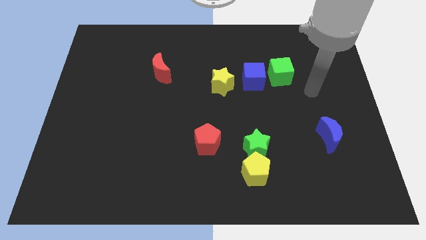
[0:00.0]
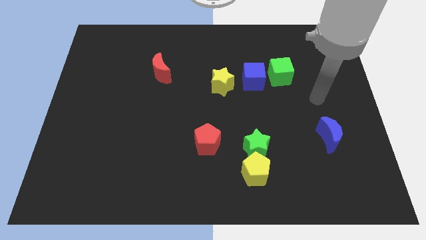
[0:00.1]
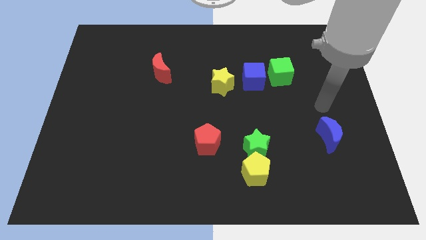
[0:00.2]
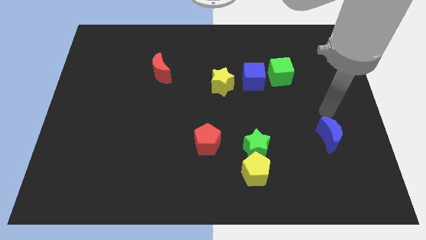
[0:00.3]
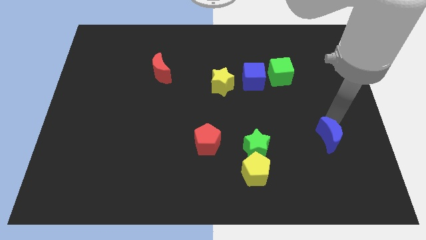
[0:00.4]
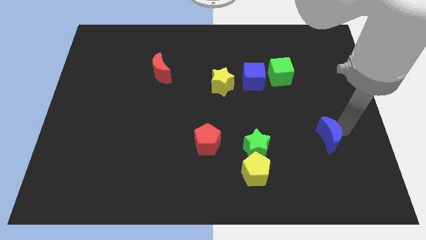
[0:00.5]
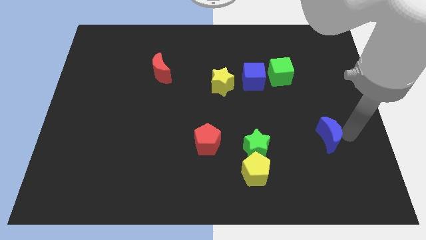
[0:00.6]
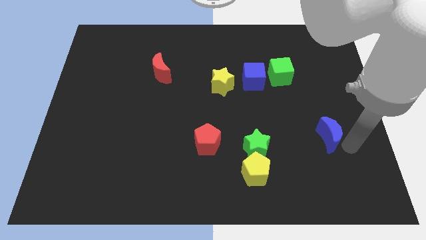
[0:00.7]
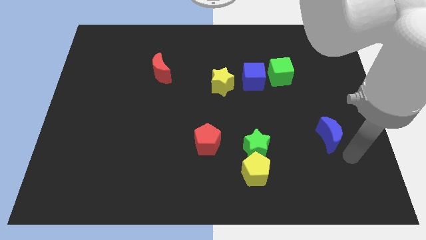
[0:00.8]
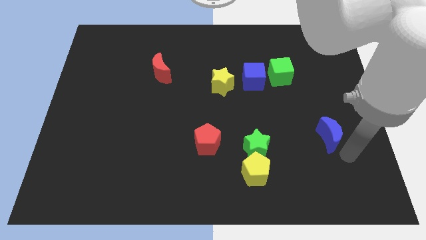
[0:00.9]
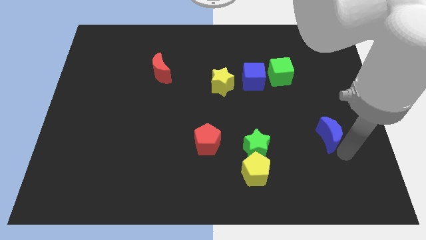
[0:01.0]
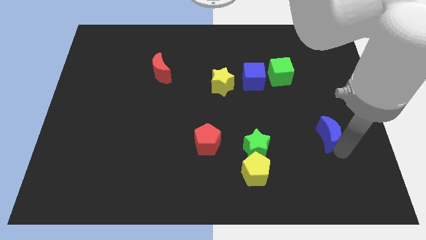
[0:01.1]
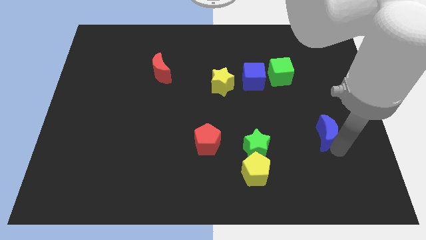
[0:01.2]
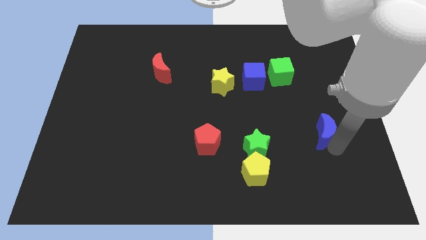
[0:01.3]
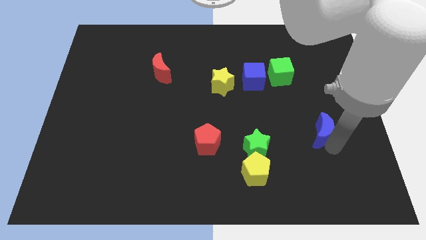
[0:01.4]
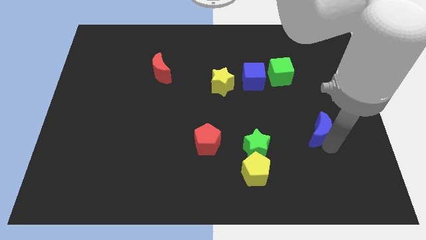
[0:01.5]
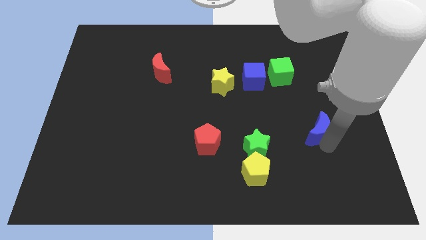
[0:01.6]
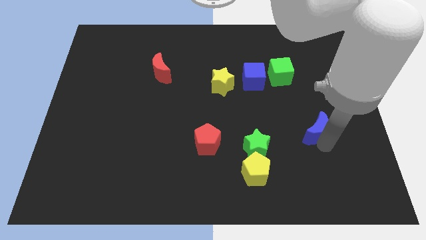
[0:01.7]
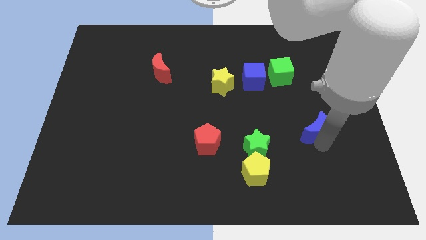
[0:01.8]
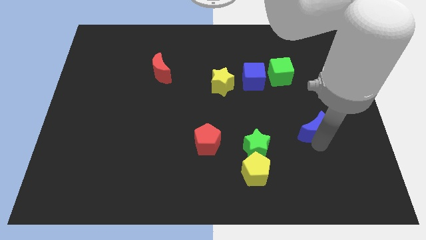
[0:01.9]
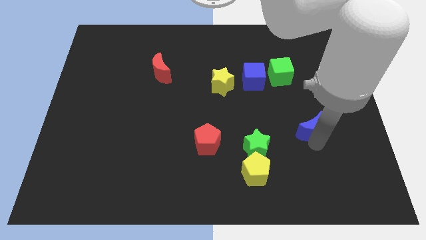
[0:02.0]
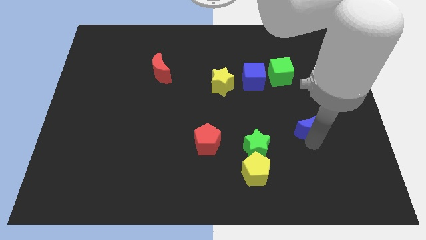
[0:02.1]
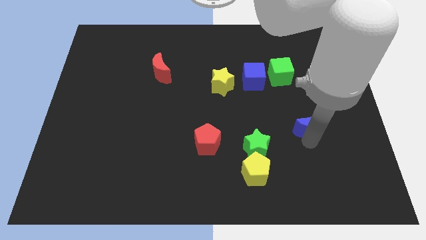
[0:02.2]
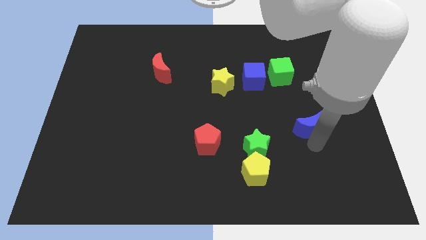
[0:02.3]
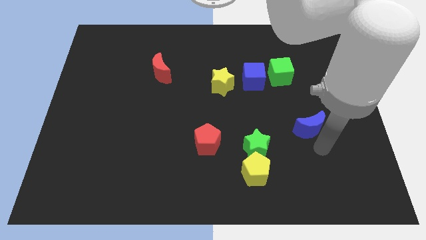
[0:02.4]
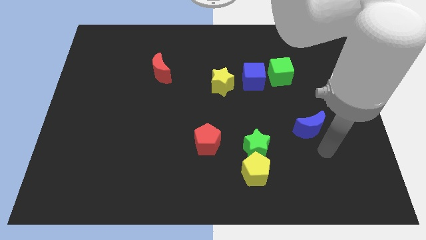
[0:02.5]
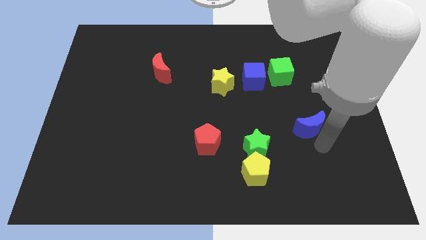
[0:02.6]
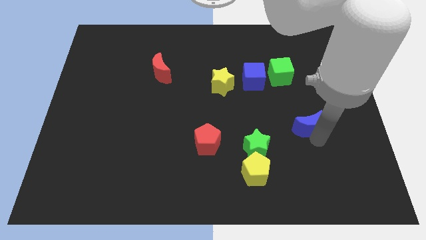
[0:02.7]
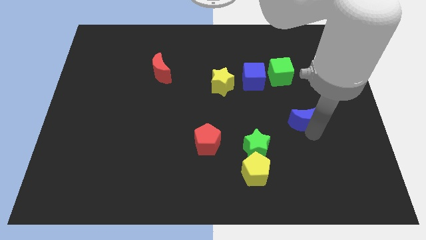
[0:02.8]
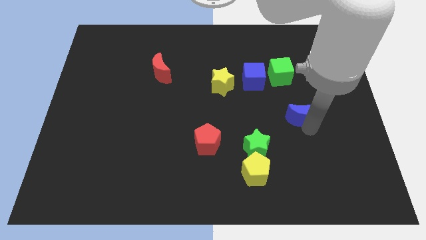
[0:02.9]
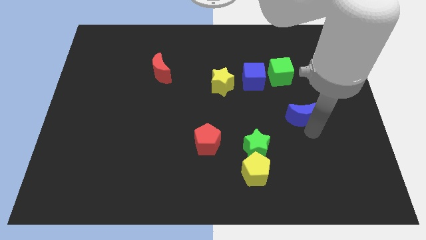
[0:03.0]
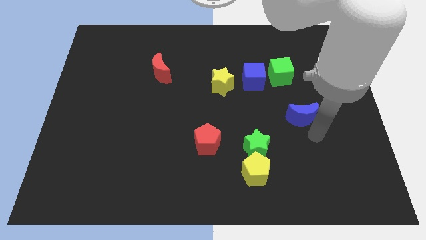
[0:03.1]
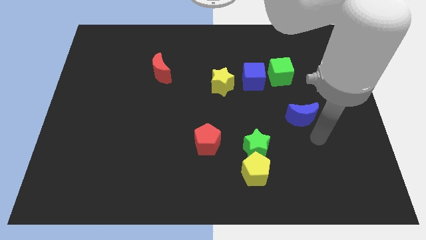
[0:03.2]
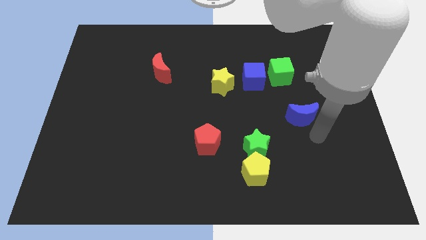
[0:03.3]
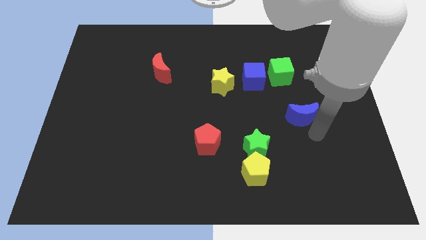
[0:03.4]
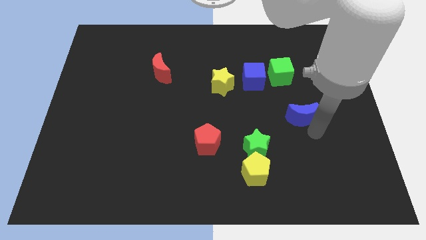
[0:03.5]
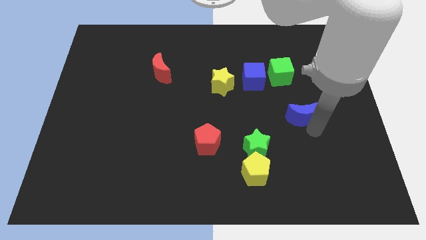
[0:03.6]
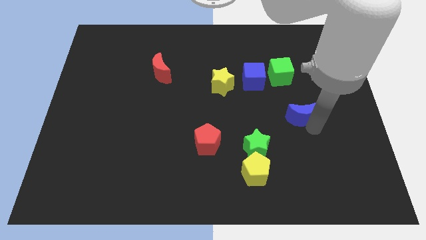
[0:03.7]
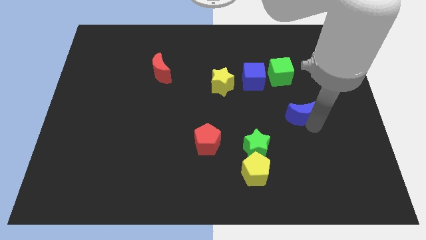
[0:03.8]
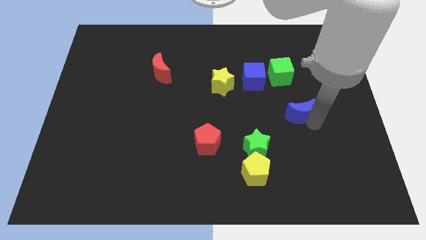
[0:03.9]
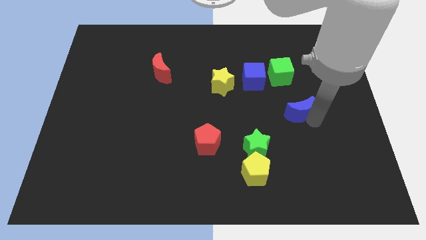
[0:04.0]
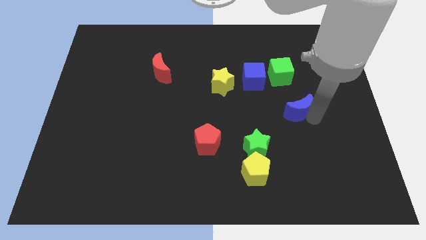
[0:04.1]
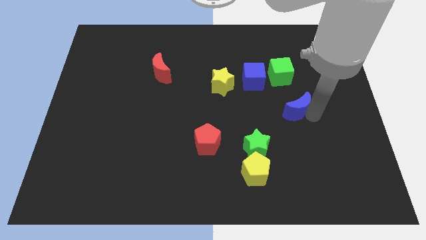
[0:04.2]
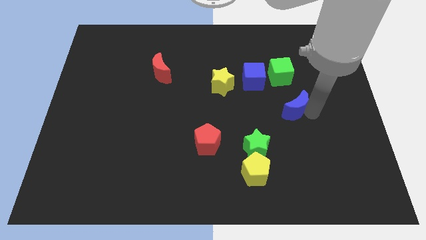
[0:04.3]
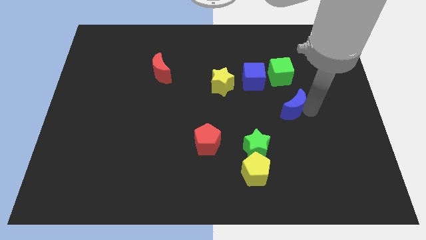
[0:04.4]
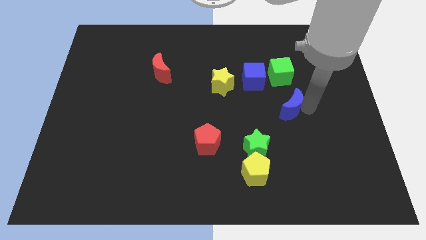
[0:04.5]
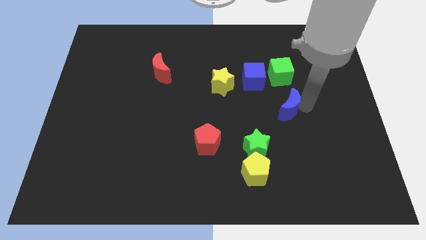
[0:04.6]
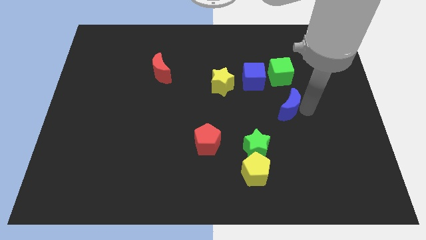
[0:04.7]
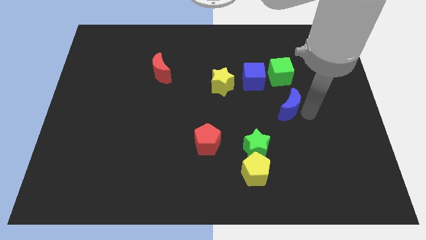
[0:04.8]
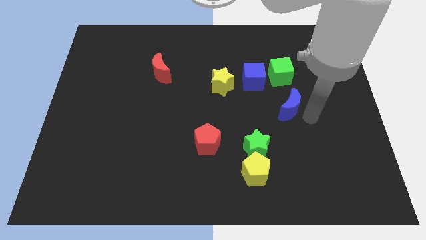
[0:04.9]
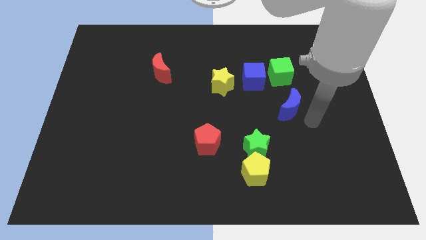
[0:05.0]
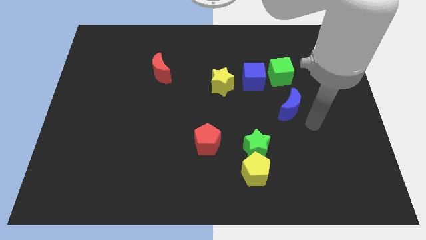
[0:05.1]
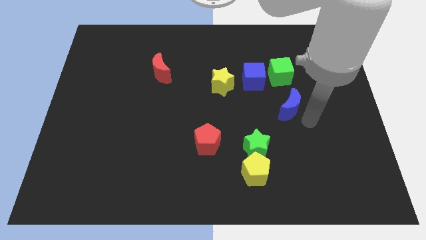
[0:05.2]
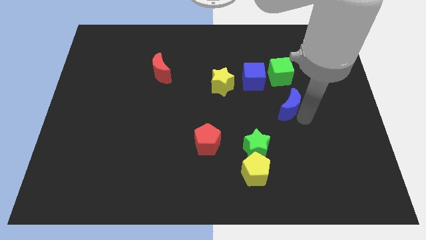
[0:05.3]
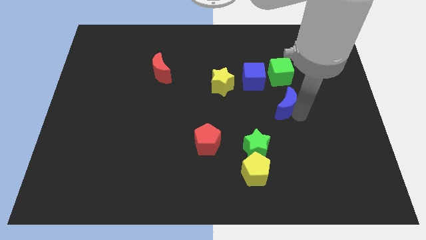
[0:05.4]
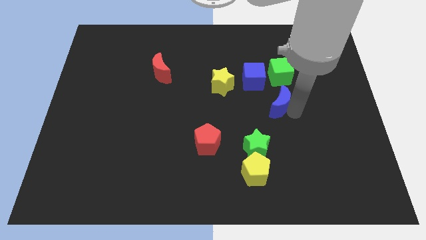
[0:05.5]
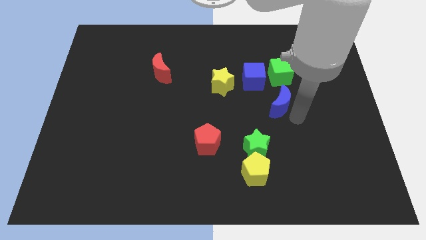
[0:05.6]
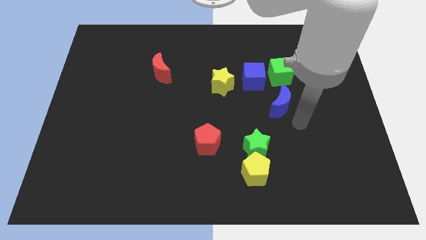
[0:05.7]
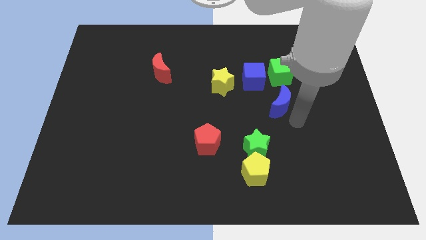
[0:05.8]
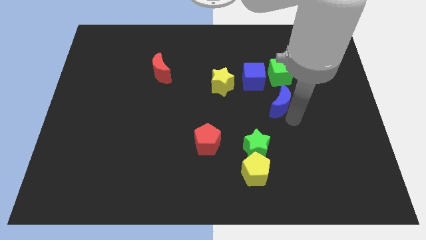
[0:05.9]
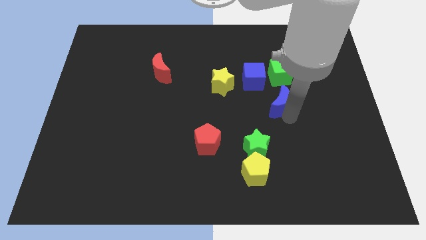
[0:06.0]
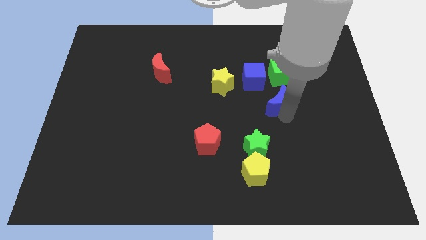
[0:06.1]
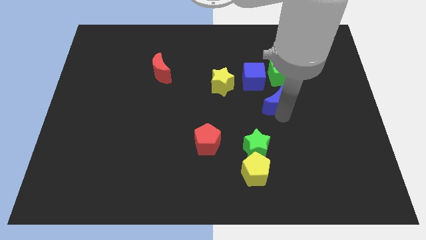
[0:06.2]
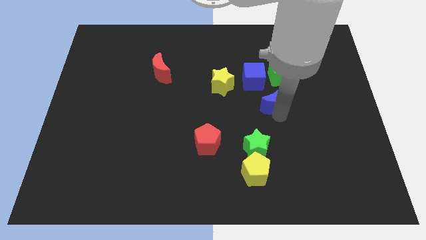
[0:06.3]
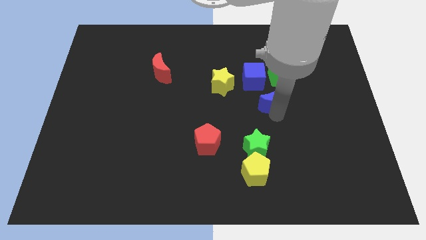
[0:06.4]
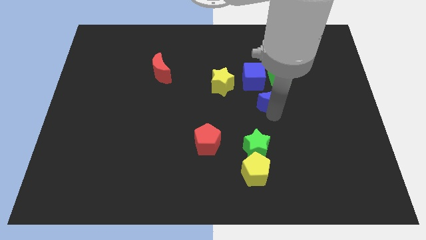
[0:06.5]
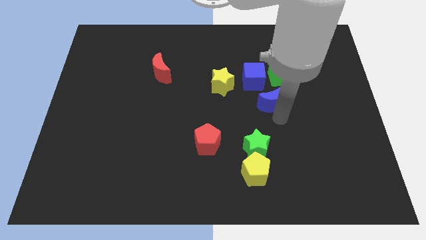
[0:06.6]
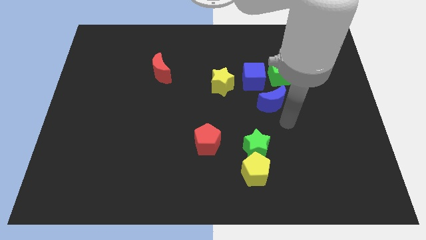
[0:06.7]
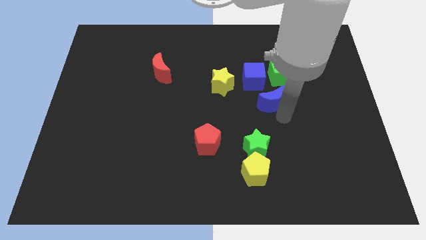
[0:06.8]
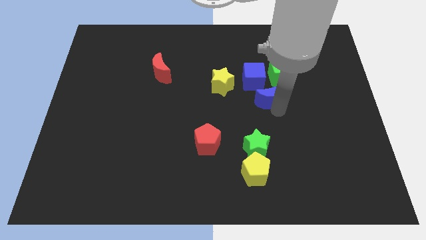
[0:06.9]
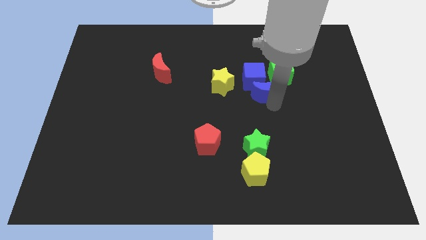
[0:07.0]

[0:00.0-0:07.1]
move the blue moon to the blue cube

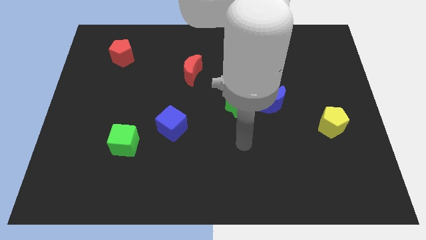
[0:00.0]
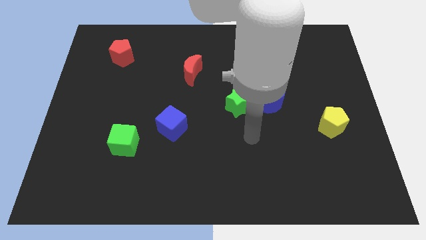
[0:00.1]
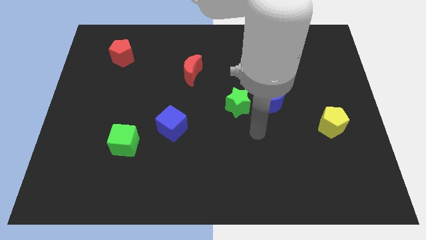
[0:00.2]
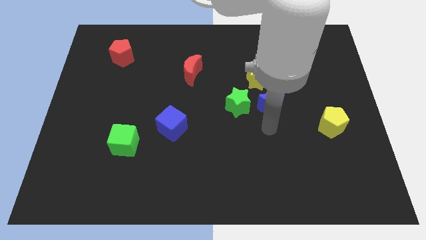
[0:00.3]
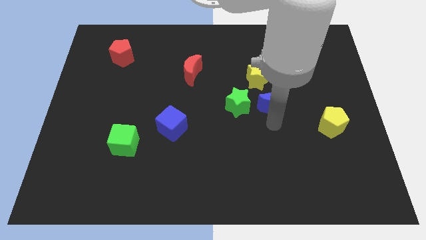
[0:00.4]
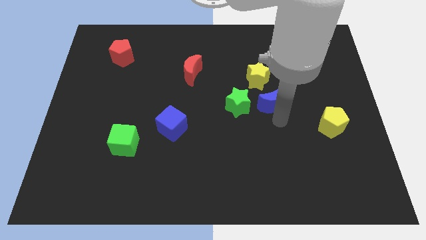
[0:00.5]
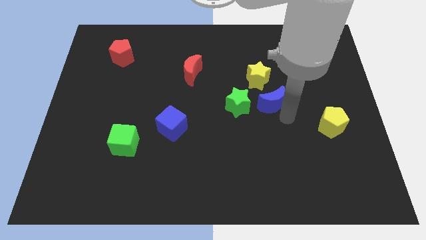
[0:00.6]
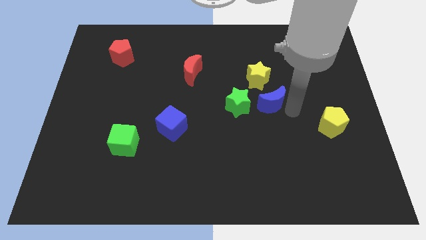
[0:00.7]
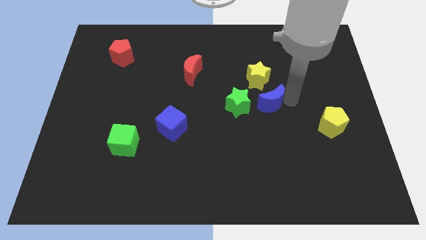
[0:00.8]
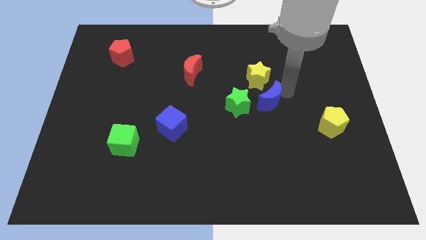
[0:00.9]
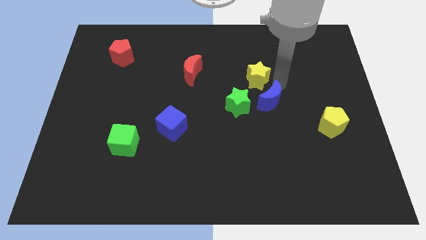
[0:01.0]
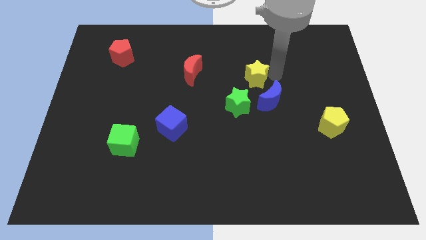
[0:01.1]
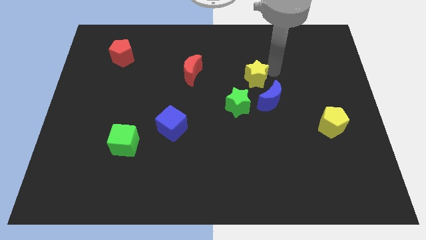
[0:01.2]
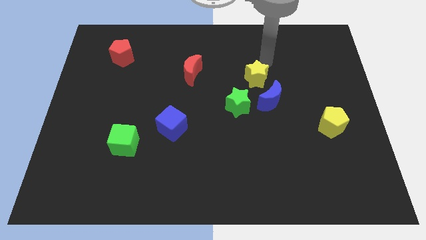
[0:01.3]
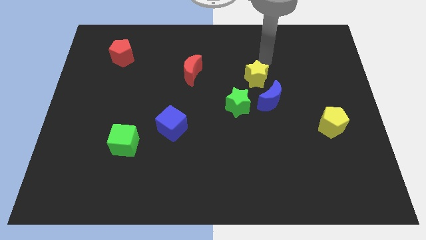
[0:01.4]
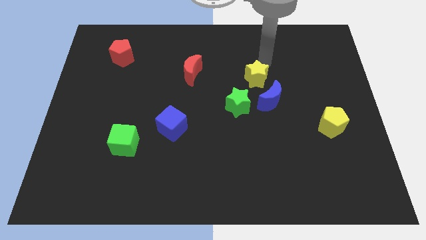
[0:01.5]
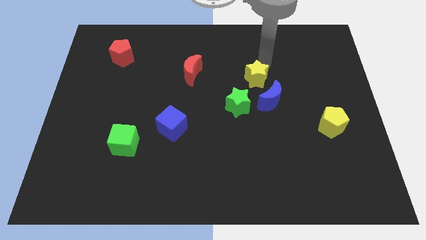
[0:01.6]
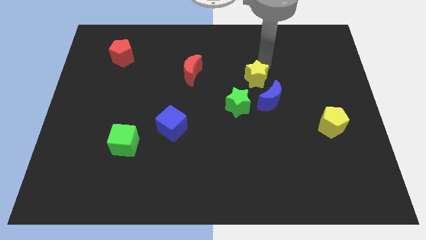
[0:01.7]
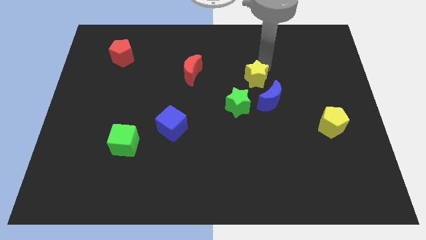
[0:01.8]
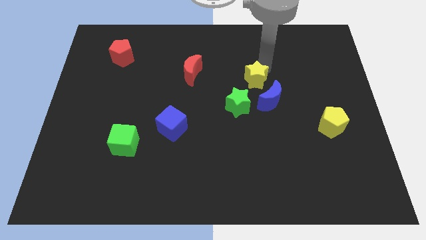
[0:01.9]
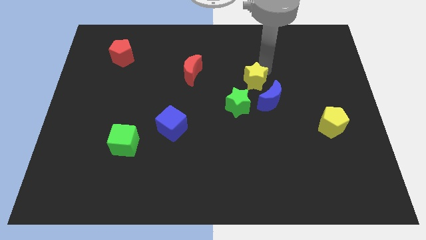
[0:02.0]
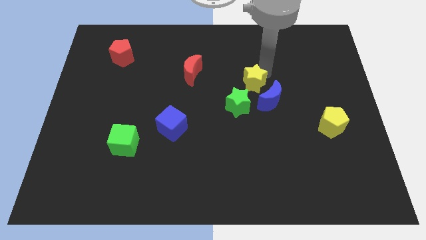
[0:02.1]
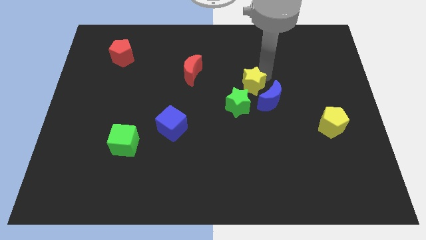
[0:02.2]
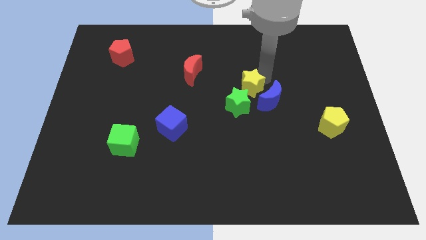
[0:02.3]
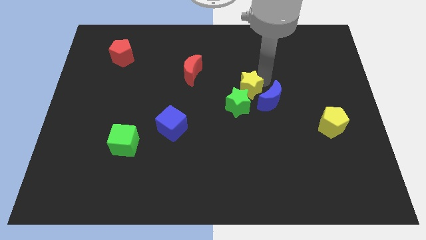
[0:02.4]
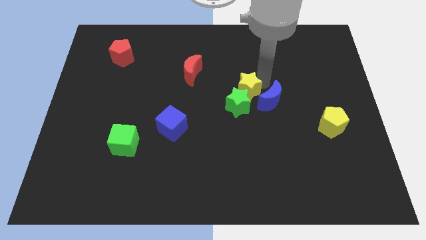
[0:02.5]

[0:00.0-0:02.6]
slide the yellow star next to the green star
